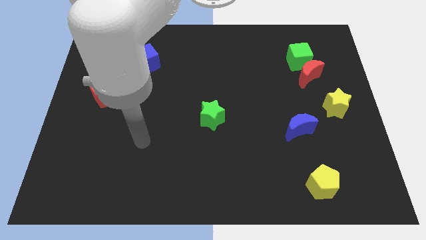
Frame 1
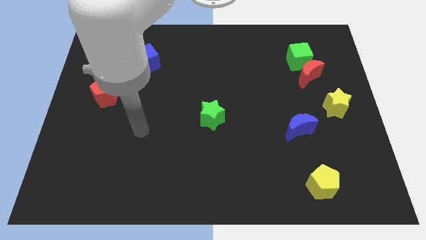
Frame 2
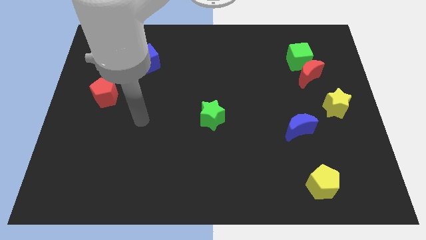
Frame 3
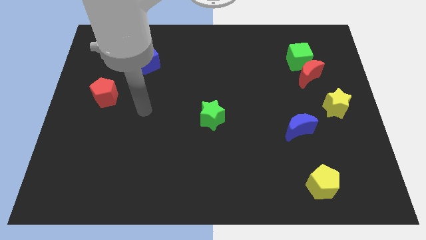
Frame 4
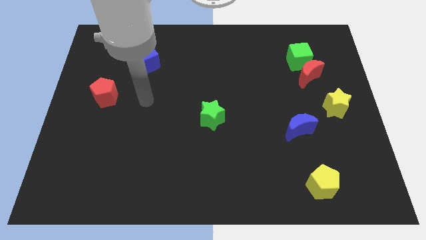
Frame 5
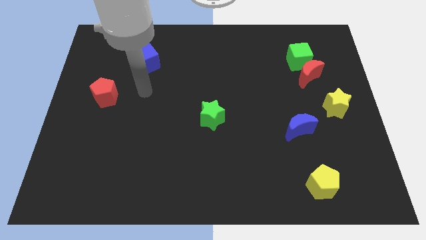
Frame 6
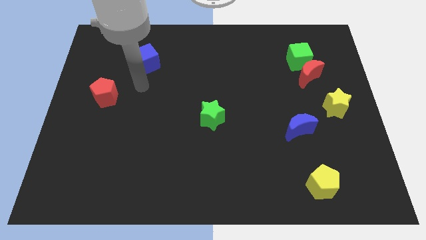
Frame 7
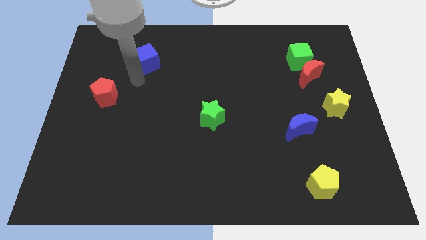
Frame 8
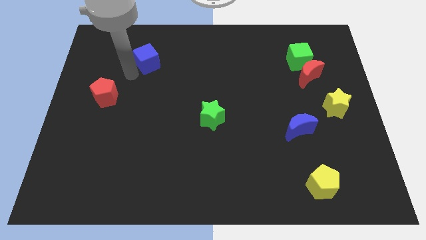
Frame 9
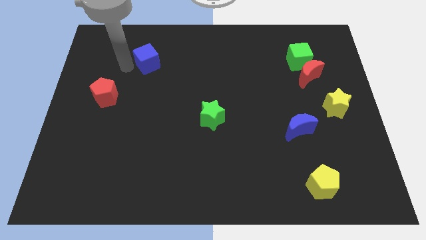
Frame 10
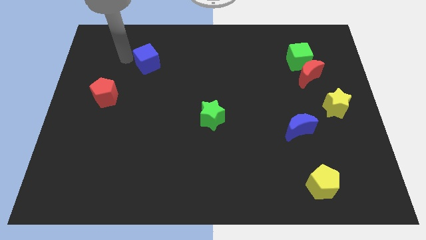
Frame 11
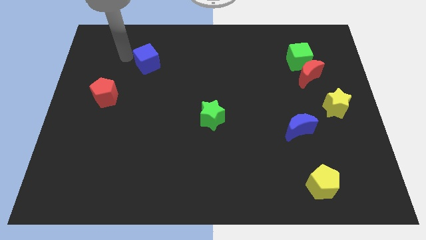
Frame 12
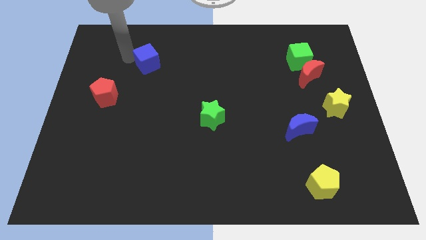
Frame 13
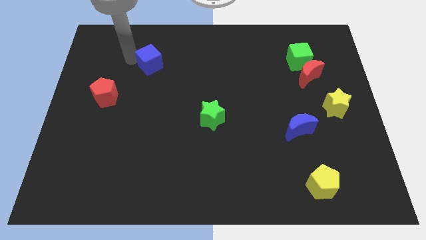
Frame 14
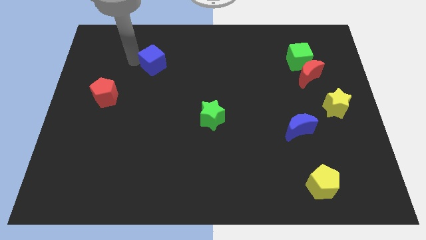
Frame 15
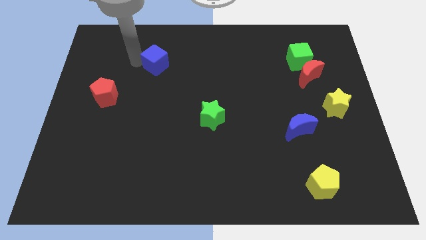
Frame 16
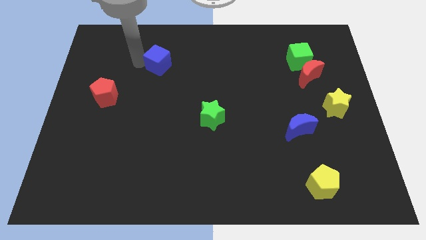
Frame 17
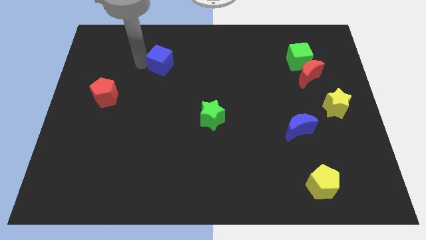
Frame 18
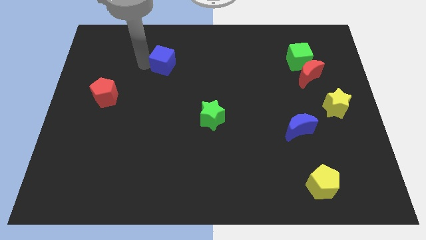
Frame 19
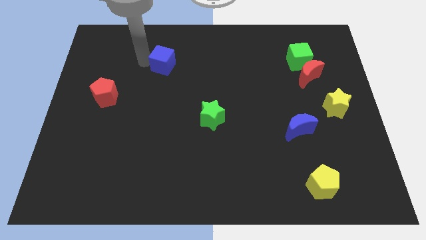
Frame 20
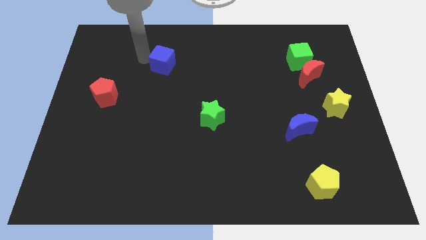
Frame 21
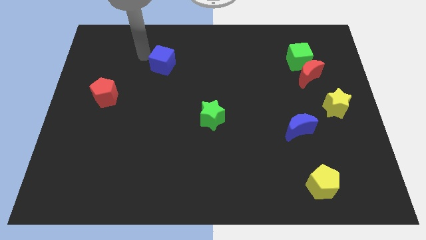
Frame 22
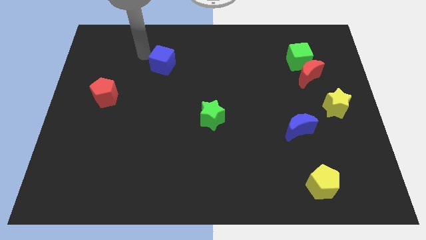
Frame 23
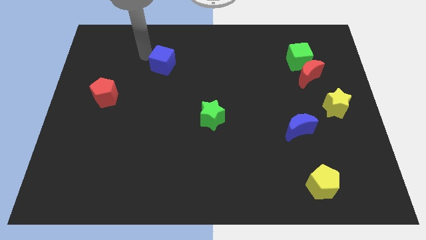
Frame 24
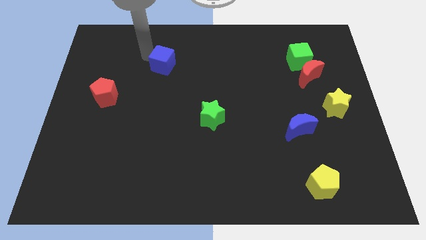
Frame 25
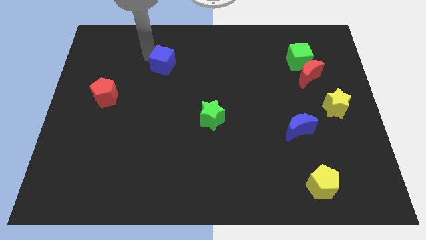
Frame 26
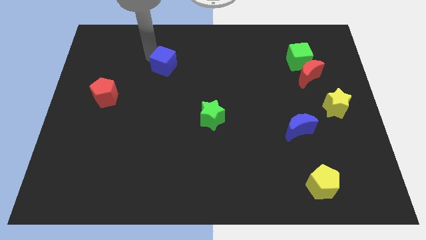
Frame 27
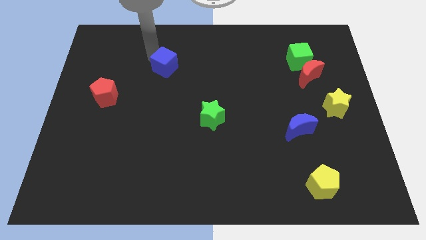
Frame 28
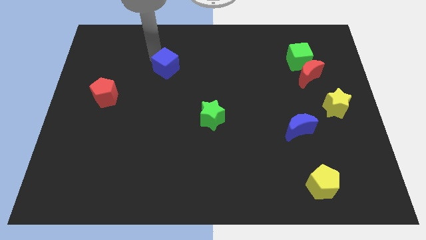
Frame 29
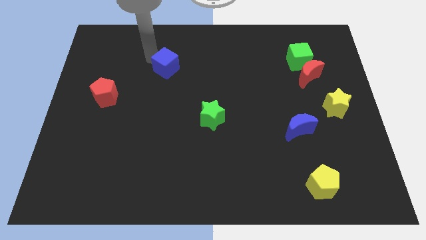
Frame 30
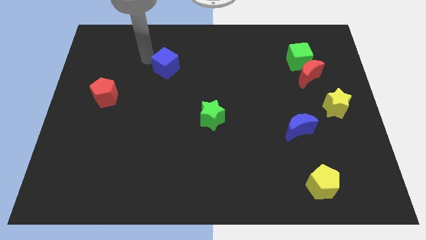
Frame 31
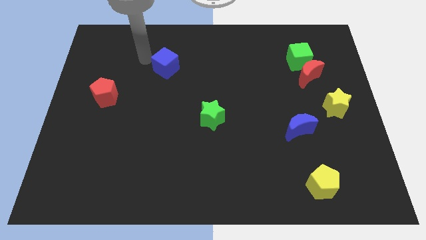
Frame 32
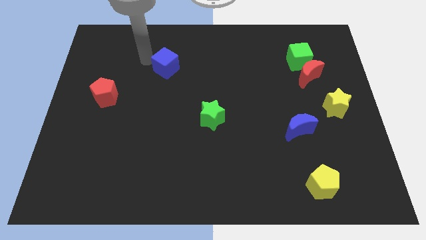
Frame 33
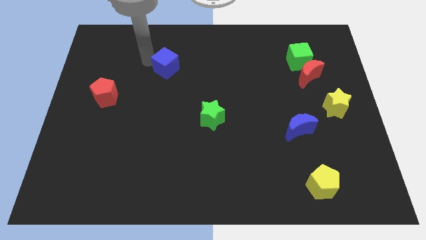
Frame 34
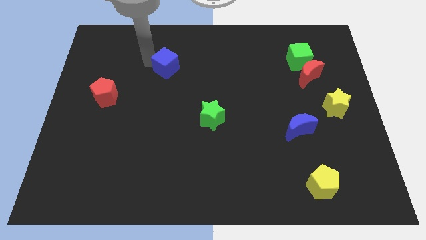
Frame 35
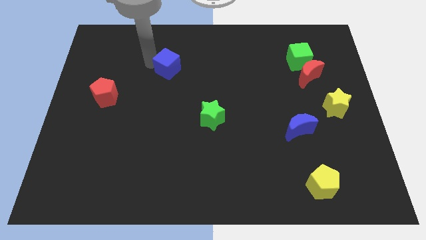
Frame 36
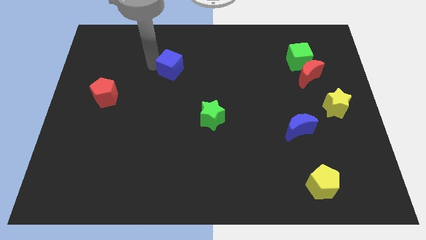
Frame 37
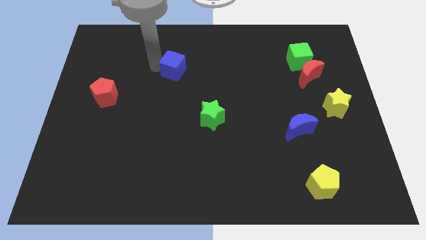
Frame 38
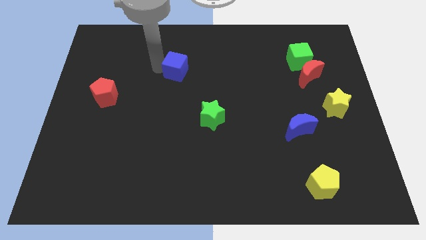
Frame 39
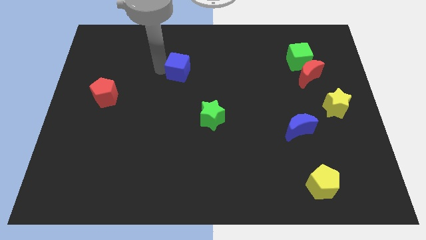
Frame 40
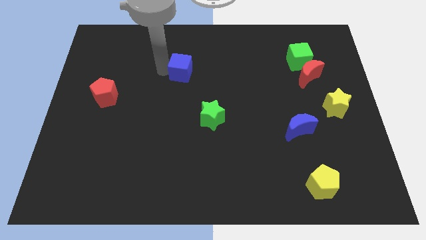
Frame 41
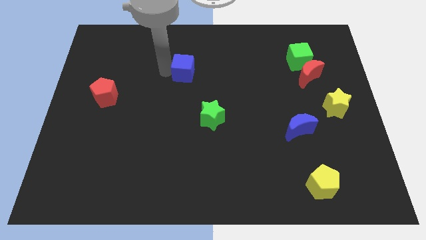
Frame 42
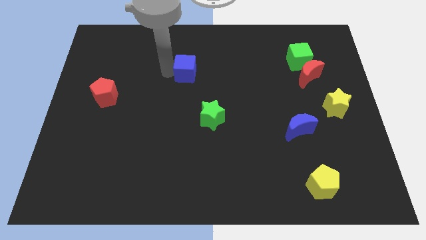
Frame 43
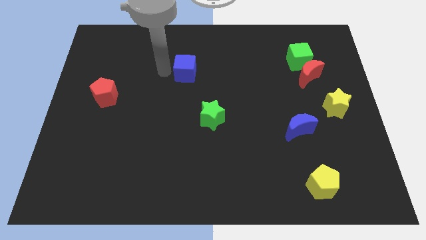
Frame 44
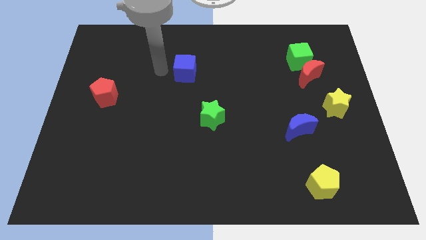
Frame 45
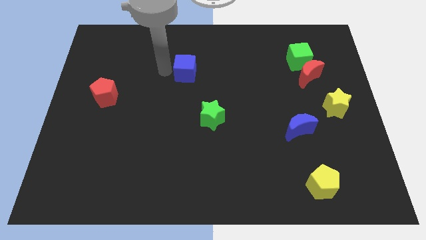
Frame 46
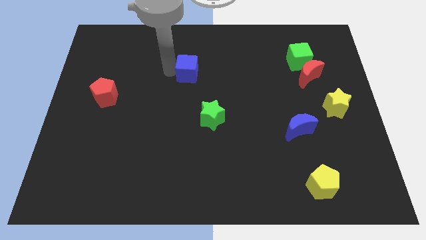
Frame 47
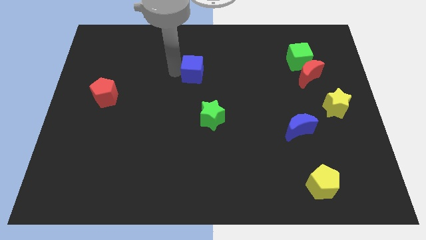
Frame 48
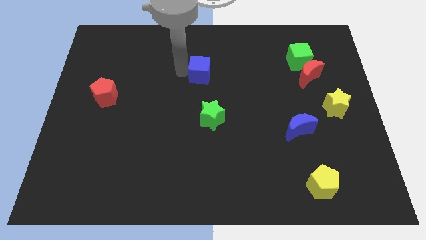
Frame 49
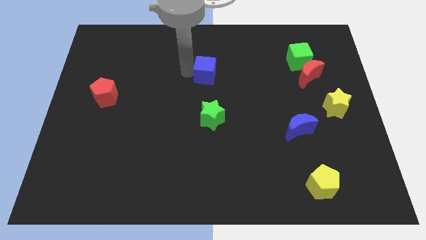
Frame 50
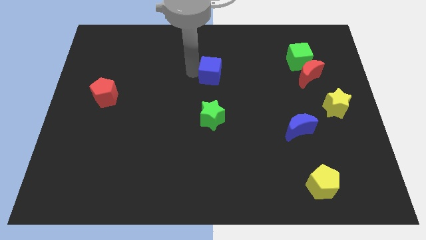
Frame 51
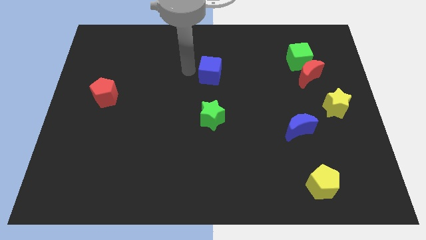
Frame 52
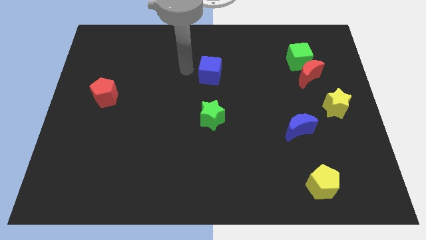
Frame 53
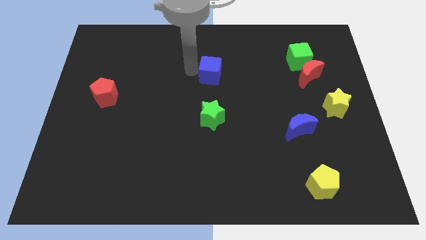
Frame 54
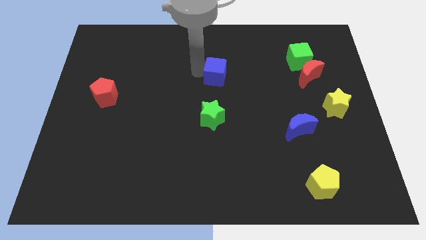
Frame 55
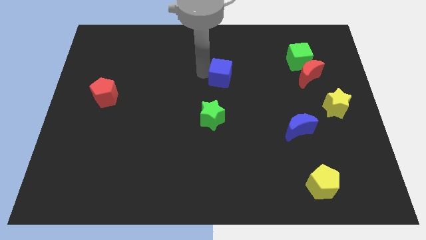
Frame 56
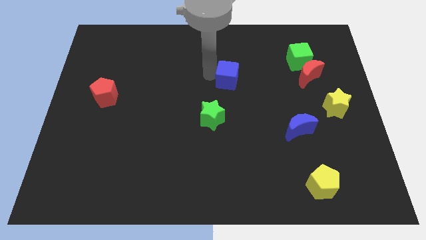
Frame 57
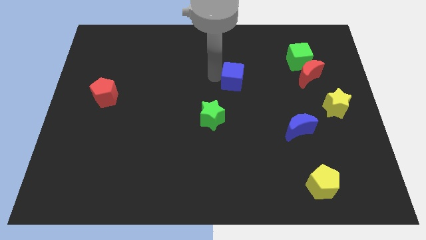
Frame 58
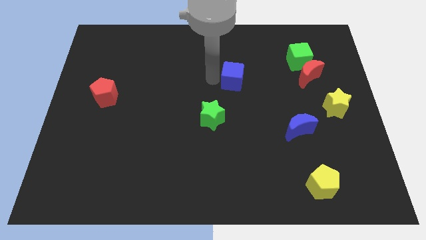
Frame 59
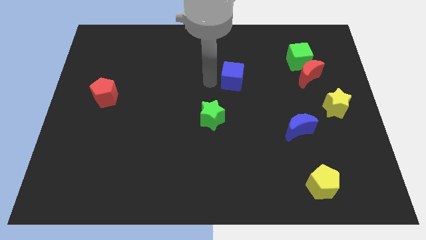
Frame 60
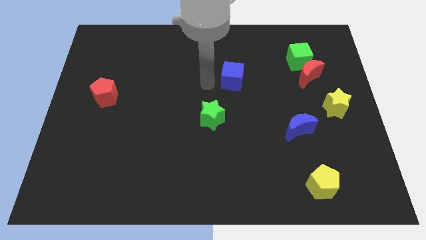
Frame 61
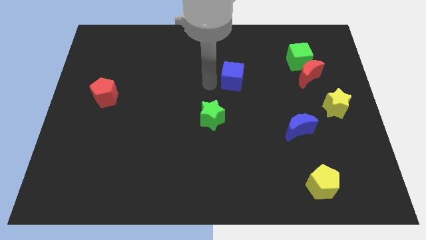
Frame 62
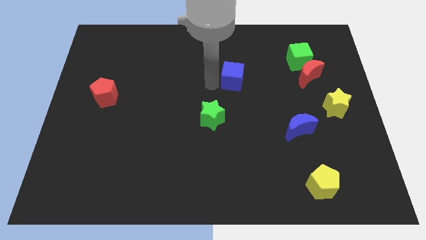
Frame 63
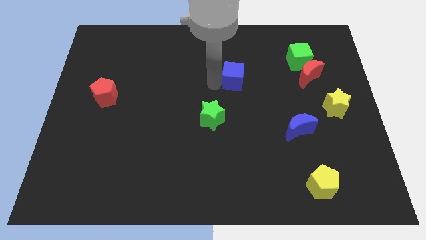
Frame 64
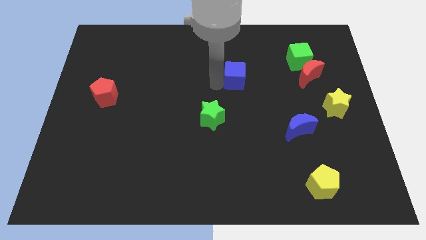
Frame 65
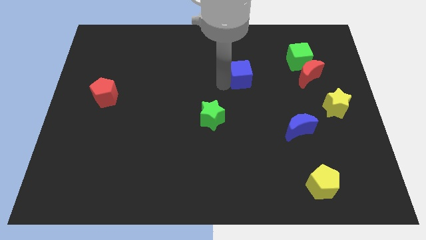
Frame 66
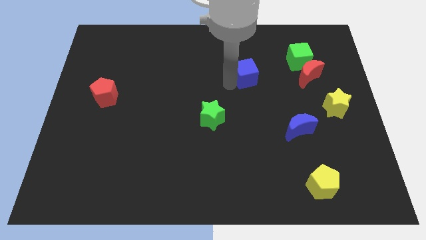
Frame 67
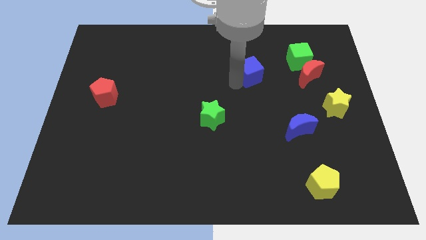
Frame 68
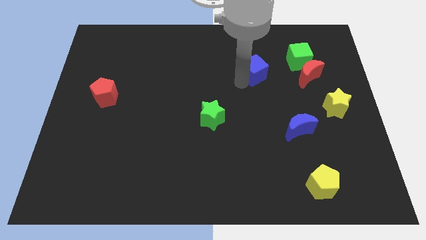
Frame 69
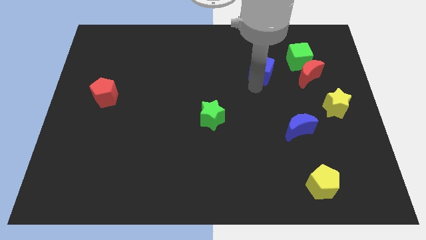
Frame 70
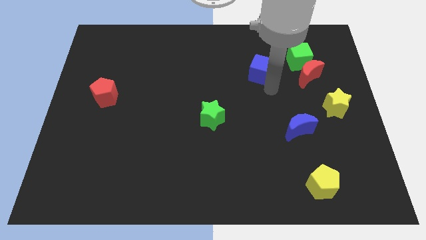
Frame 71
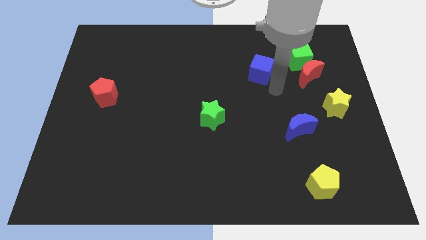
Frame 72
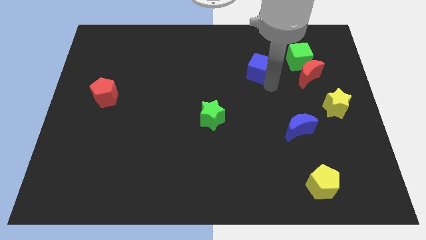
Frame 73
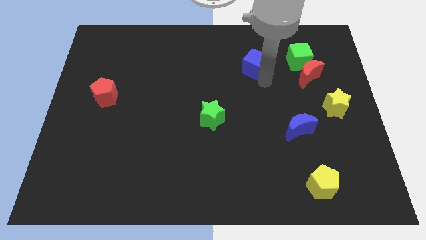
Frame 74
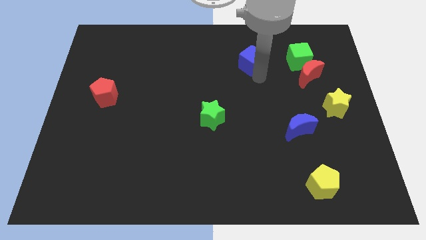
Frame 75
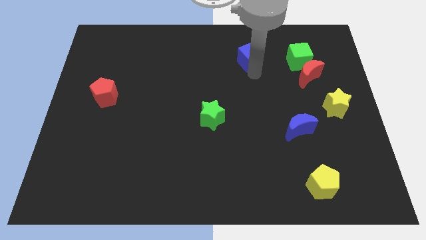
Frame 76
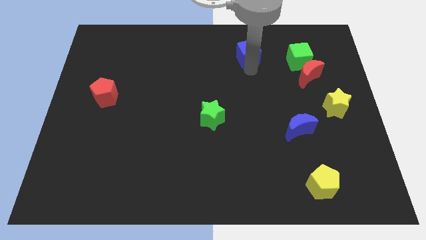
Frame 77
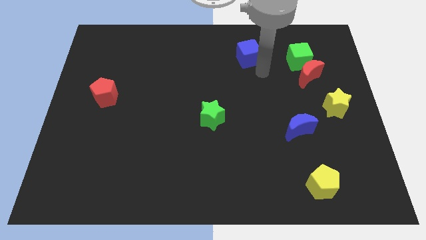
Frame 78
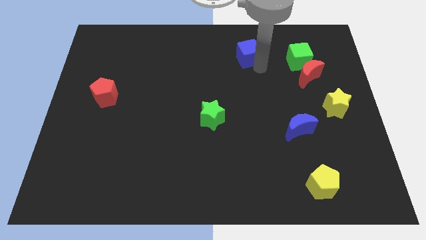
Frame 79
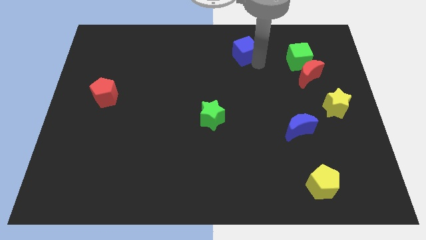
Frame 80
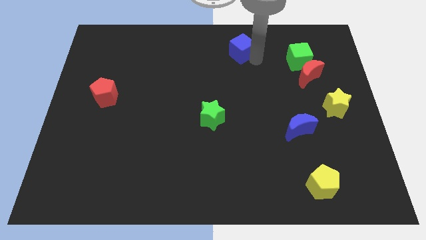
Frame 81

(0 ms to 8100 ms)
slide the blue cube to the top
